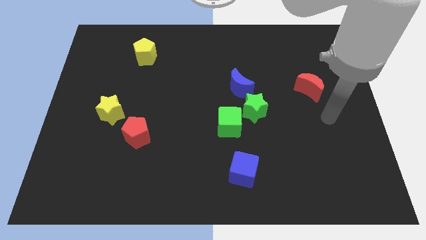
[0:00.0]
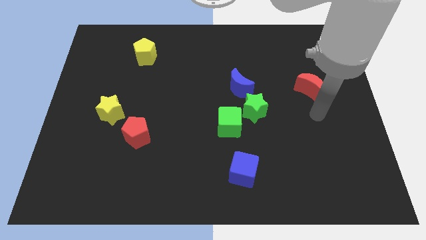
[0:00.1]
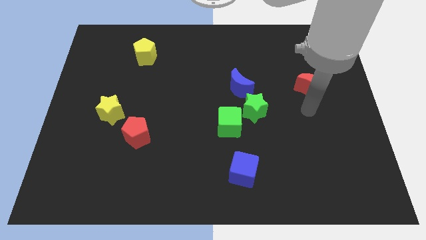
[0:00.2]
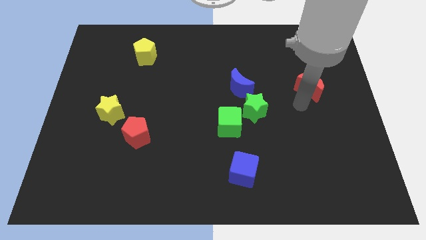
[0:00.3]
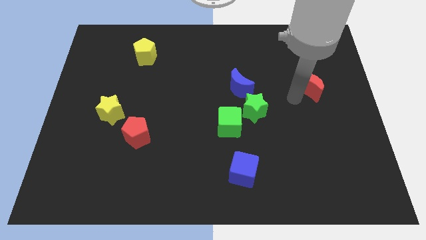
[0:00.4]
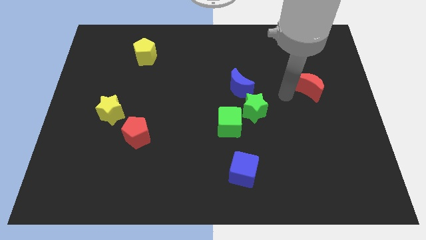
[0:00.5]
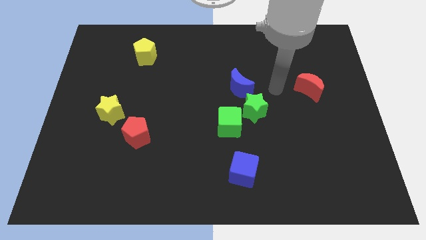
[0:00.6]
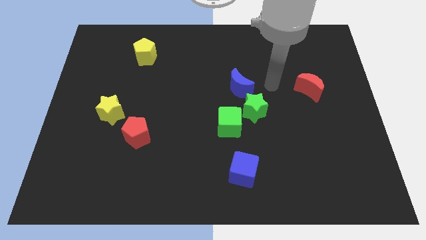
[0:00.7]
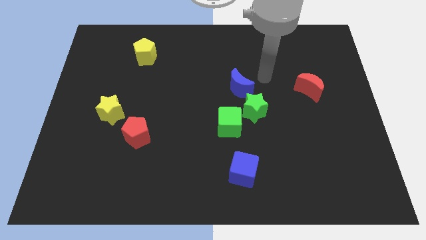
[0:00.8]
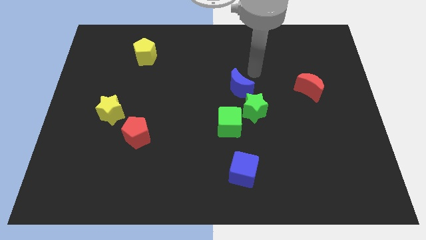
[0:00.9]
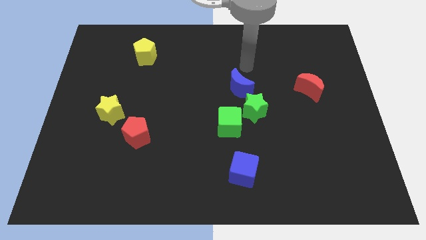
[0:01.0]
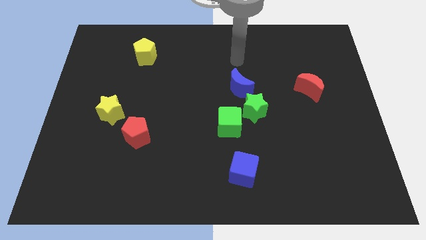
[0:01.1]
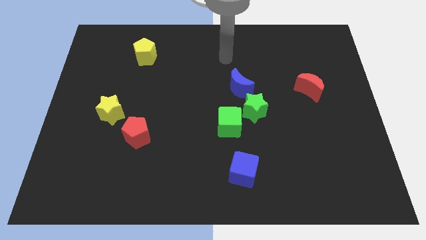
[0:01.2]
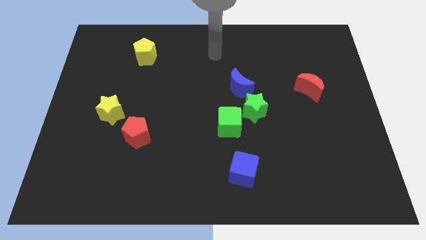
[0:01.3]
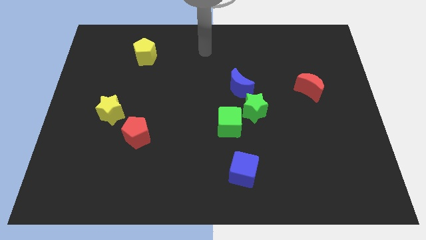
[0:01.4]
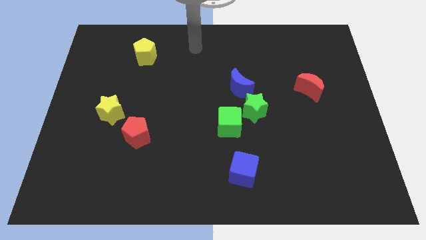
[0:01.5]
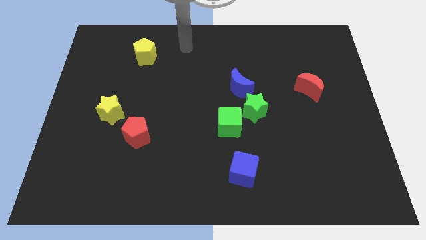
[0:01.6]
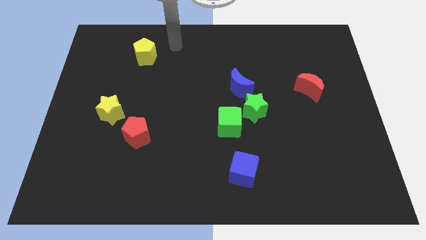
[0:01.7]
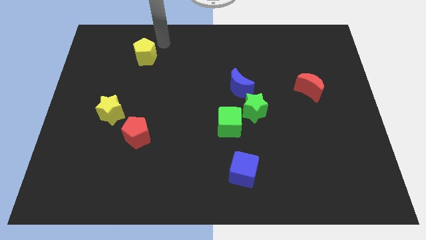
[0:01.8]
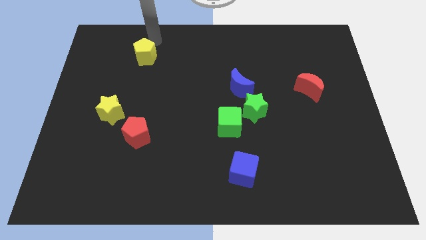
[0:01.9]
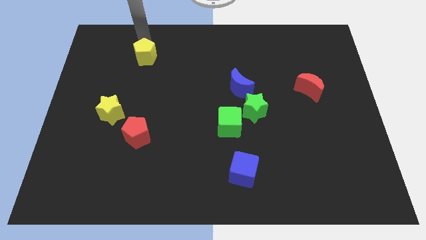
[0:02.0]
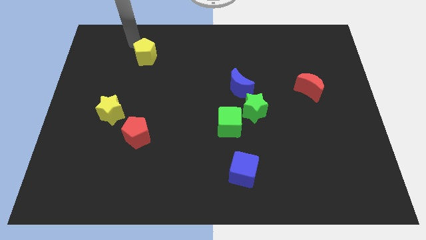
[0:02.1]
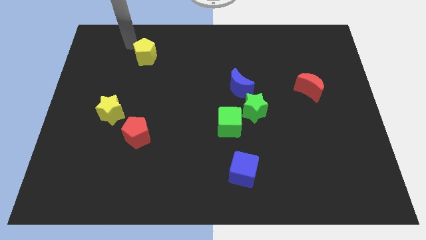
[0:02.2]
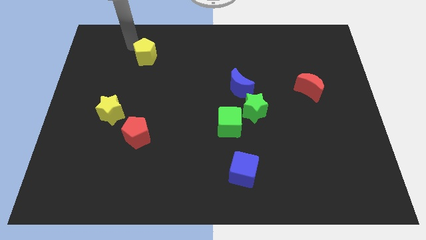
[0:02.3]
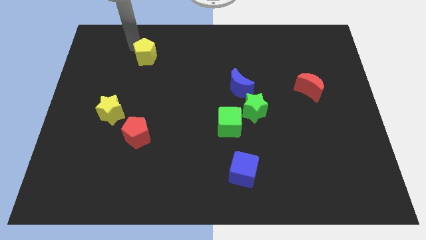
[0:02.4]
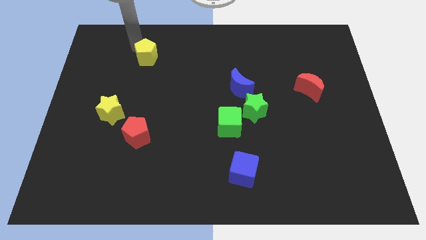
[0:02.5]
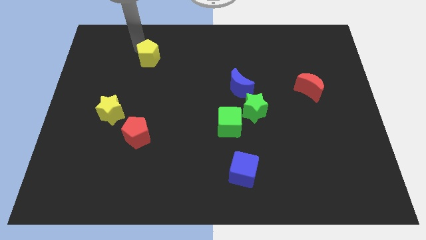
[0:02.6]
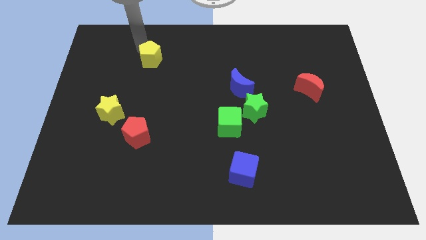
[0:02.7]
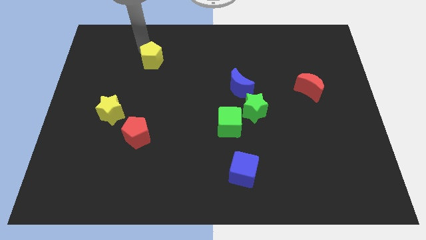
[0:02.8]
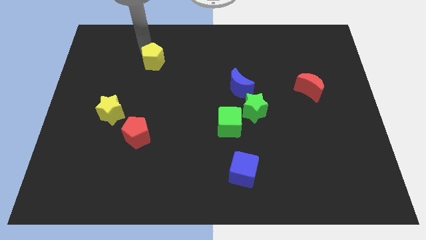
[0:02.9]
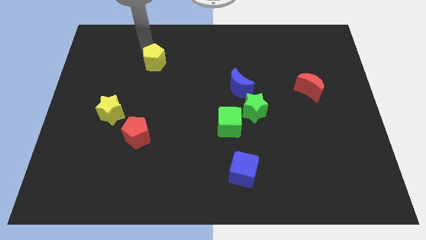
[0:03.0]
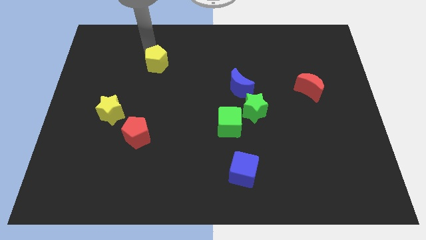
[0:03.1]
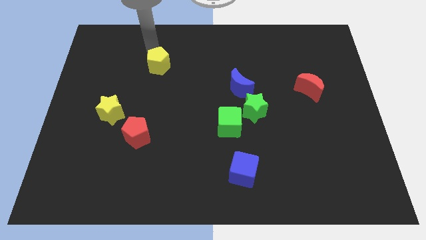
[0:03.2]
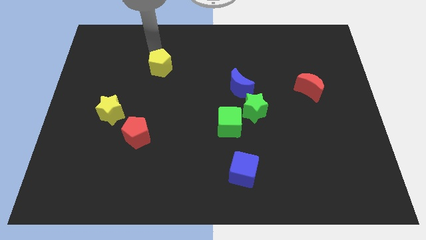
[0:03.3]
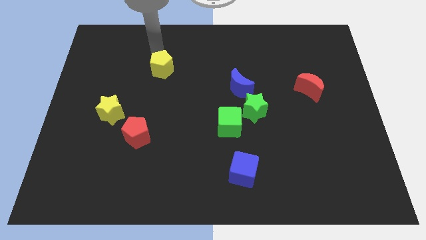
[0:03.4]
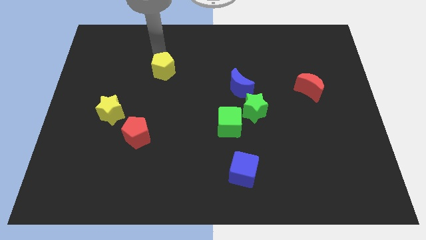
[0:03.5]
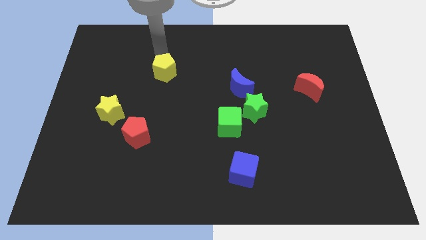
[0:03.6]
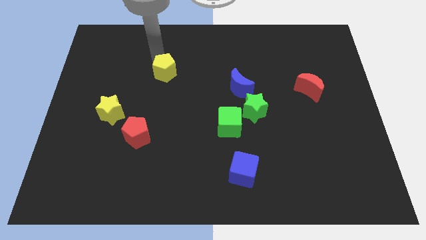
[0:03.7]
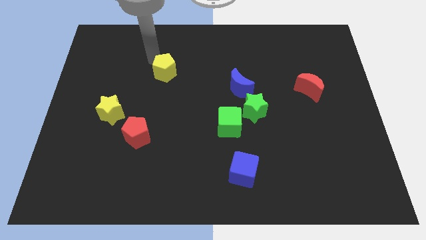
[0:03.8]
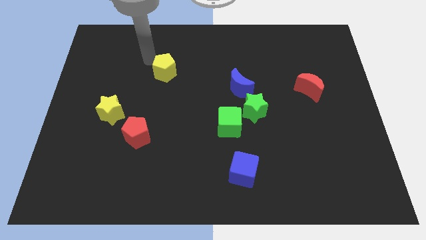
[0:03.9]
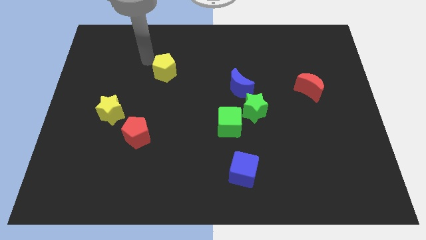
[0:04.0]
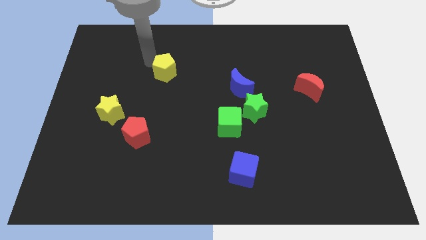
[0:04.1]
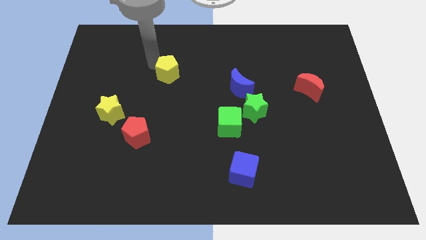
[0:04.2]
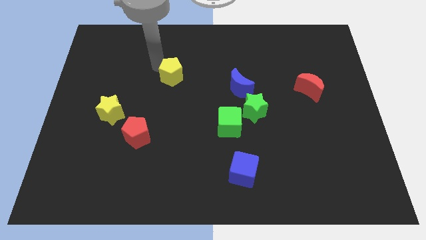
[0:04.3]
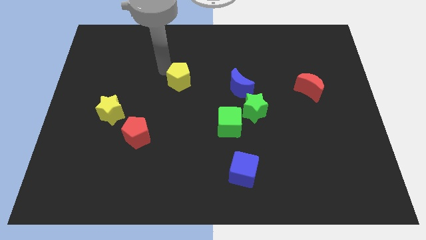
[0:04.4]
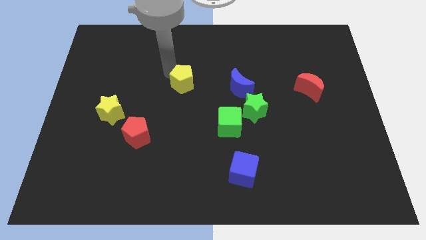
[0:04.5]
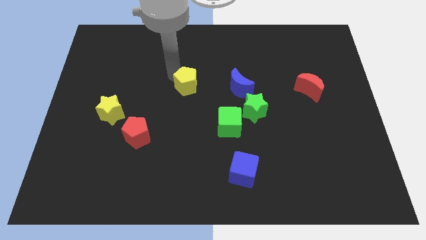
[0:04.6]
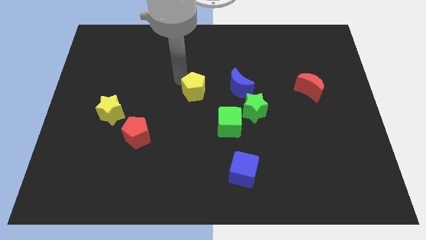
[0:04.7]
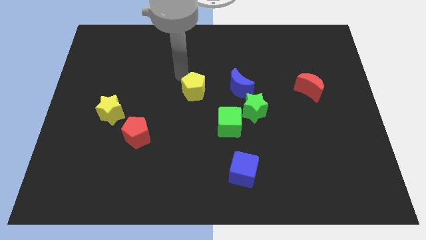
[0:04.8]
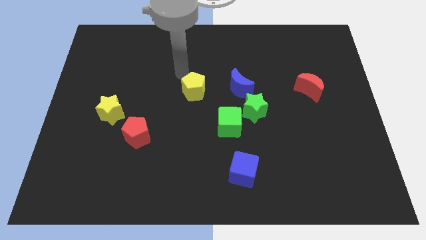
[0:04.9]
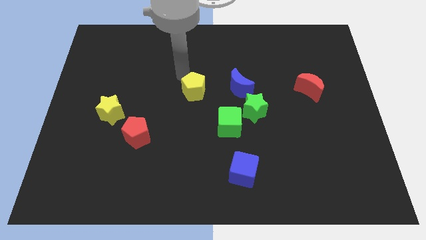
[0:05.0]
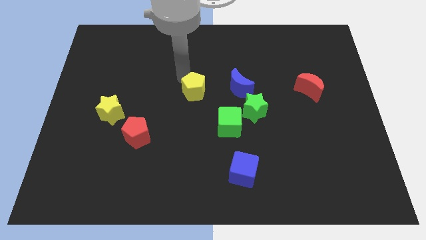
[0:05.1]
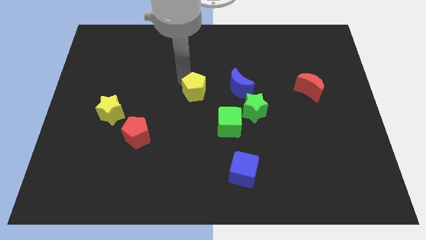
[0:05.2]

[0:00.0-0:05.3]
move the yellow pentagon to the top left of the green cube

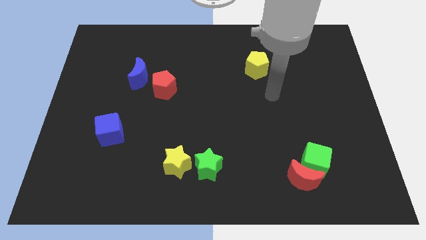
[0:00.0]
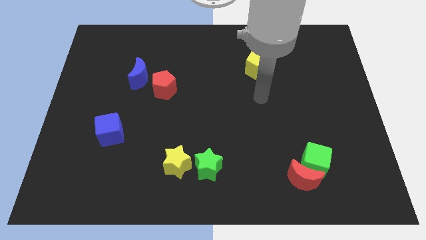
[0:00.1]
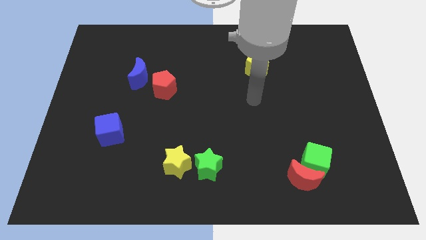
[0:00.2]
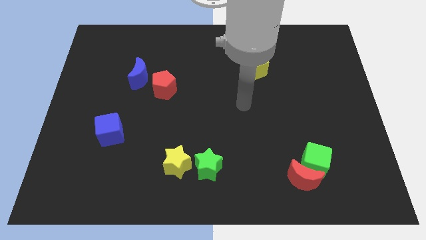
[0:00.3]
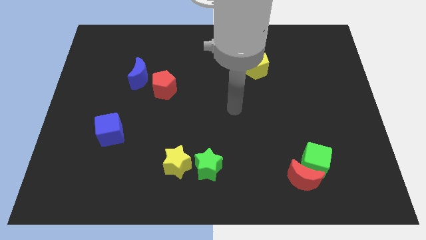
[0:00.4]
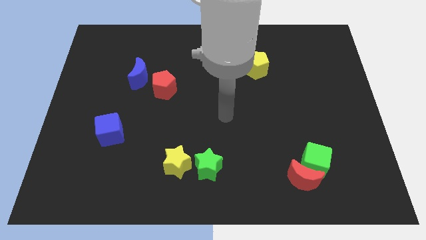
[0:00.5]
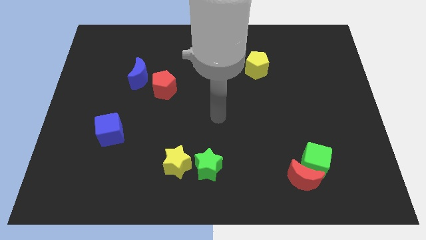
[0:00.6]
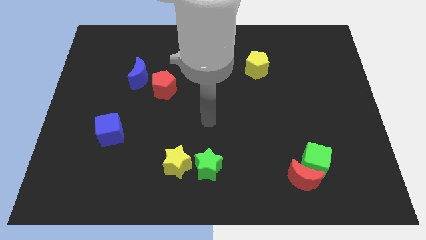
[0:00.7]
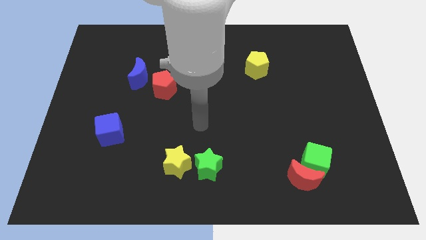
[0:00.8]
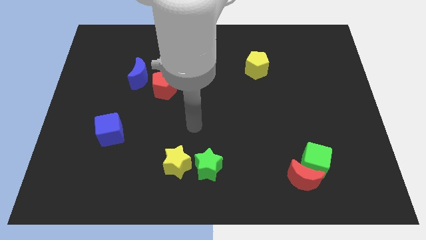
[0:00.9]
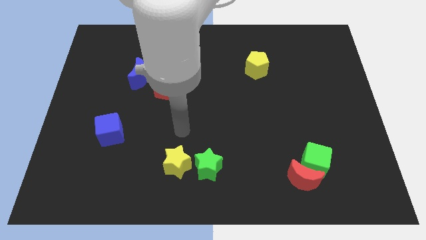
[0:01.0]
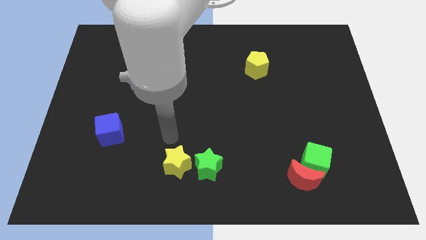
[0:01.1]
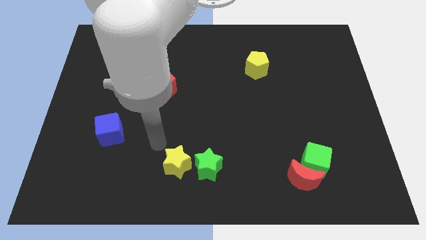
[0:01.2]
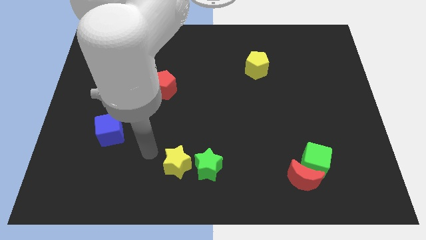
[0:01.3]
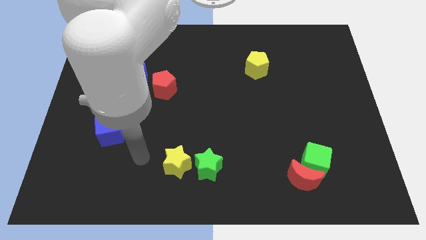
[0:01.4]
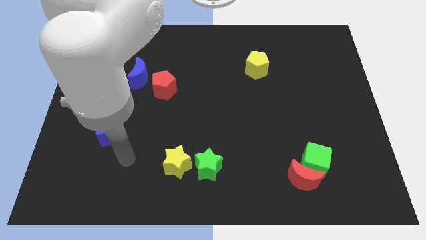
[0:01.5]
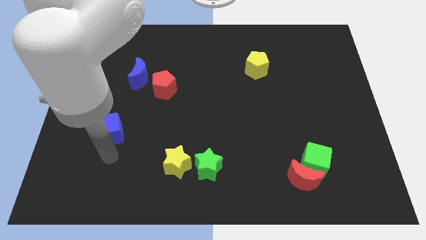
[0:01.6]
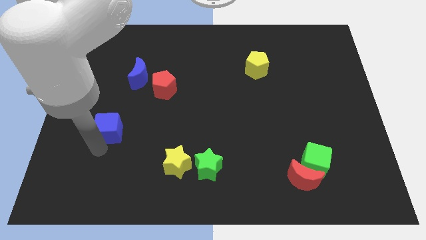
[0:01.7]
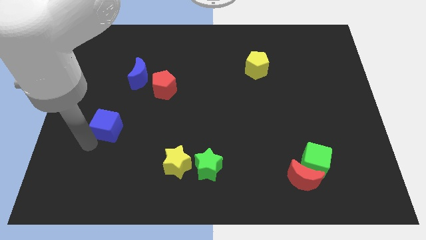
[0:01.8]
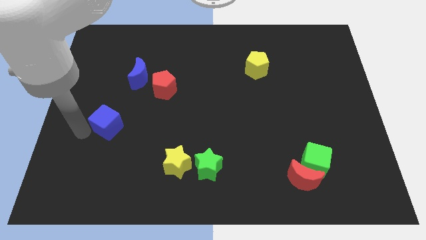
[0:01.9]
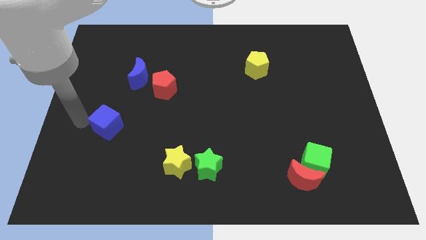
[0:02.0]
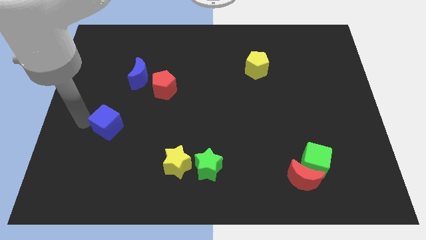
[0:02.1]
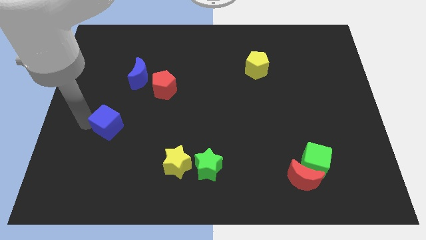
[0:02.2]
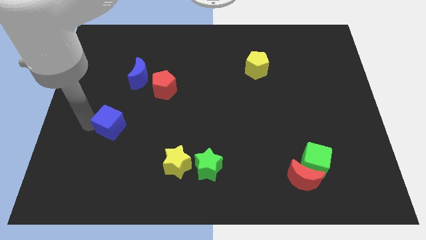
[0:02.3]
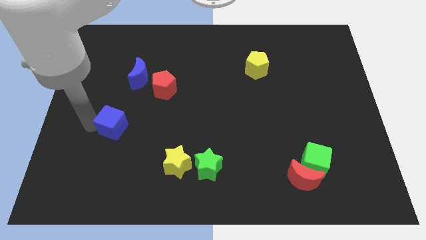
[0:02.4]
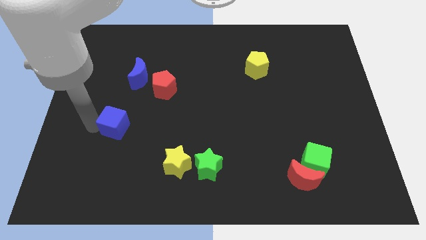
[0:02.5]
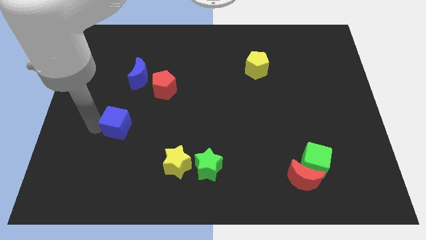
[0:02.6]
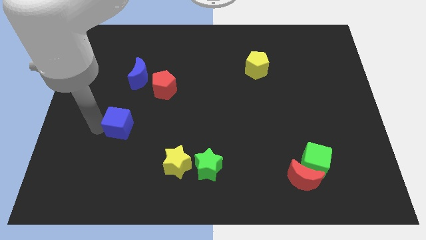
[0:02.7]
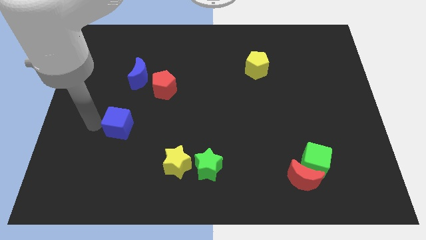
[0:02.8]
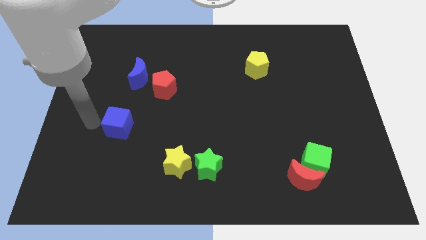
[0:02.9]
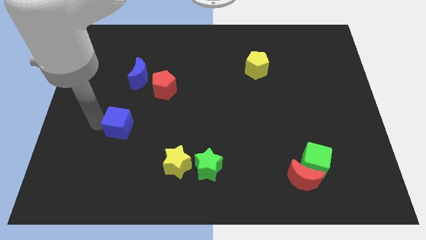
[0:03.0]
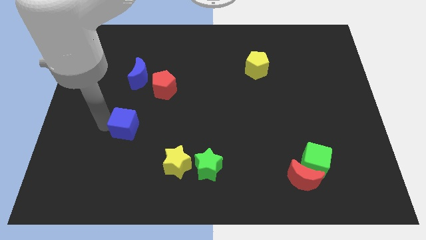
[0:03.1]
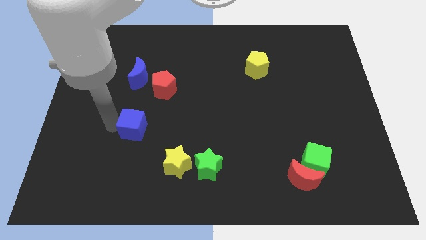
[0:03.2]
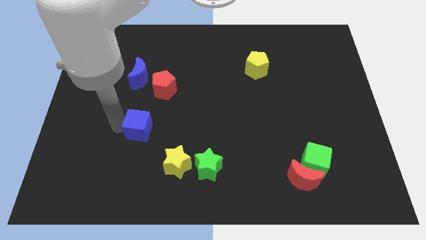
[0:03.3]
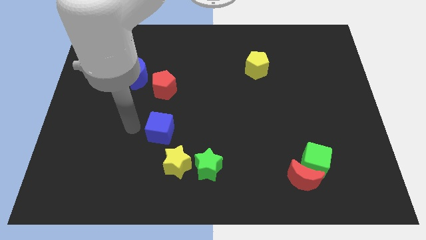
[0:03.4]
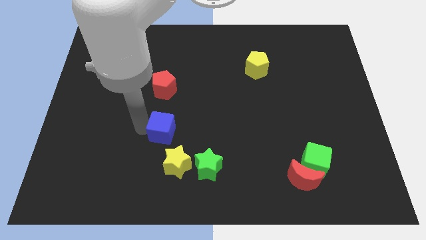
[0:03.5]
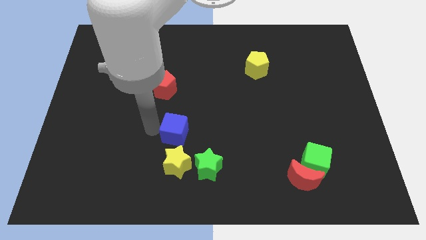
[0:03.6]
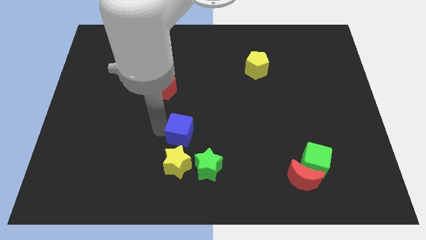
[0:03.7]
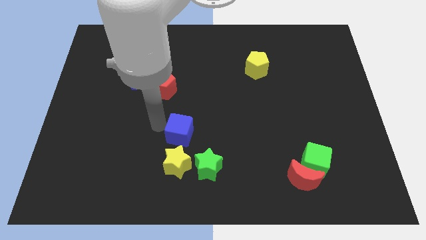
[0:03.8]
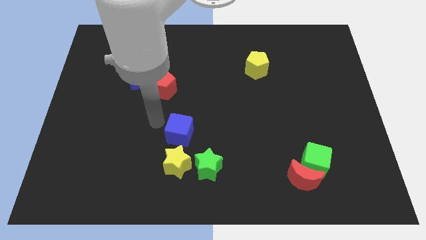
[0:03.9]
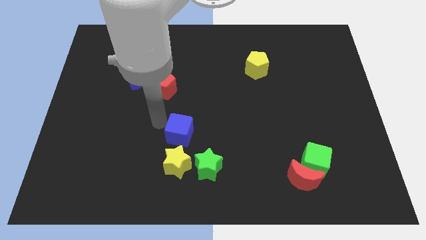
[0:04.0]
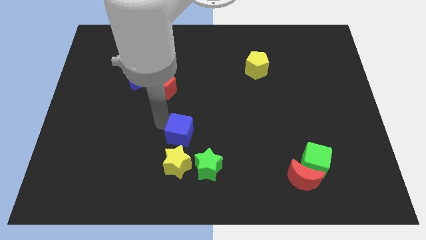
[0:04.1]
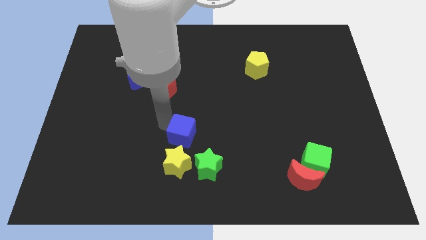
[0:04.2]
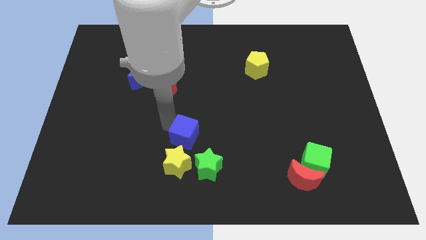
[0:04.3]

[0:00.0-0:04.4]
push the blue cube to the top right of the yellow star
